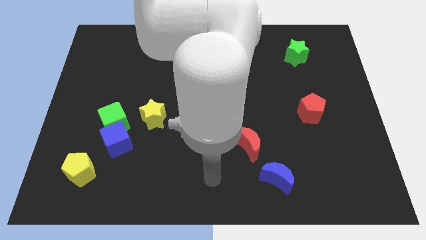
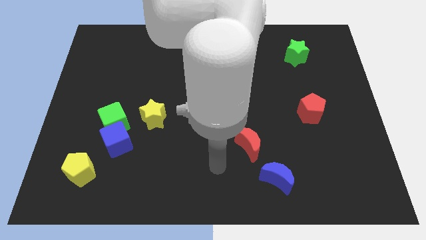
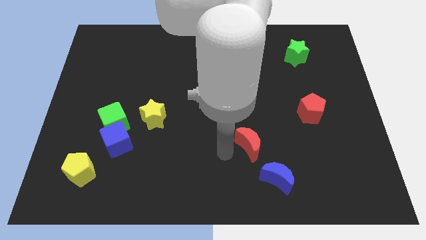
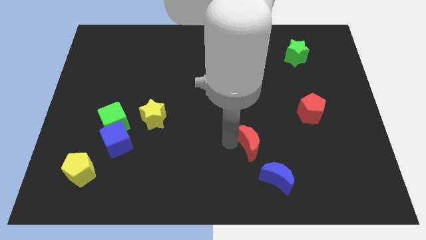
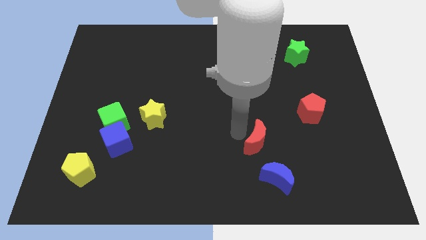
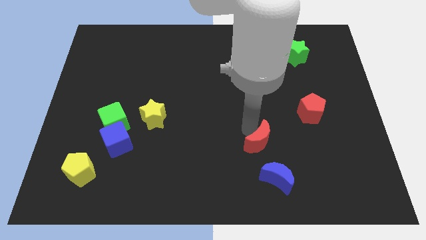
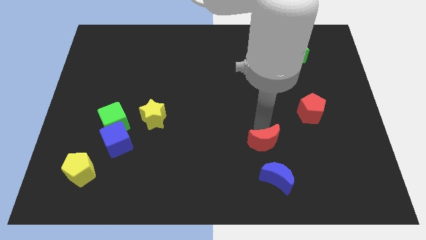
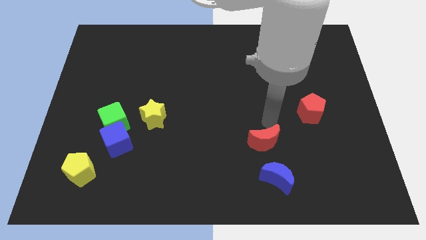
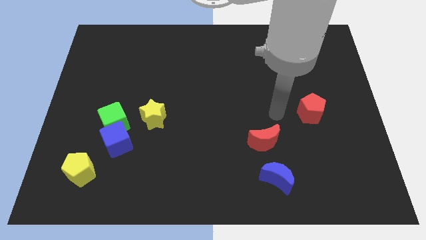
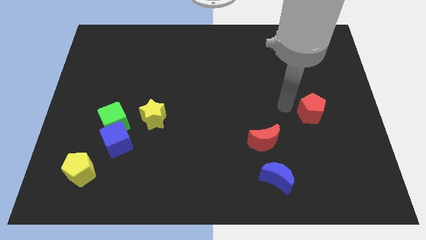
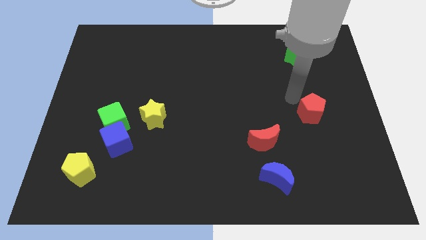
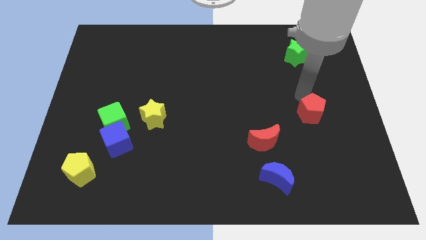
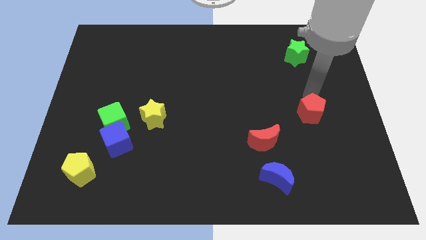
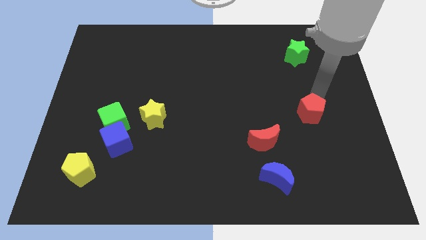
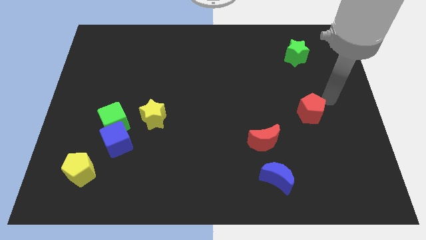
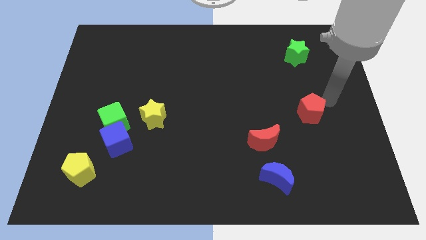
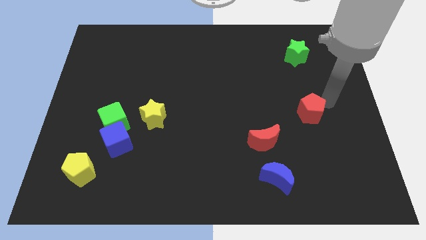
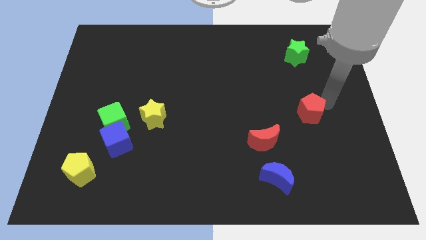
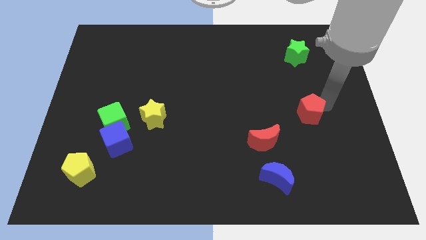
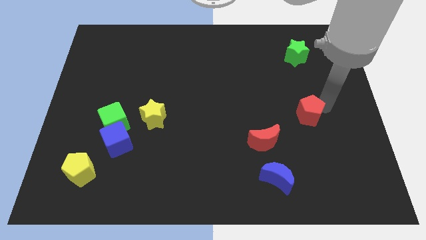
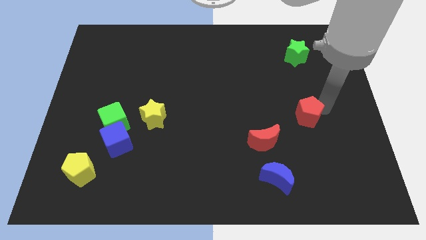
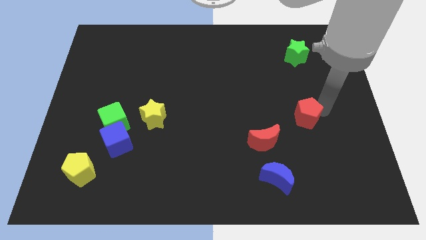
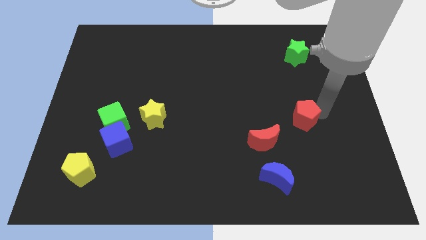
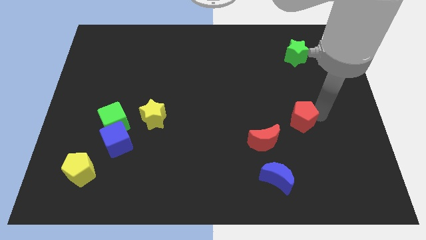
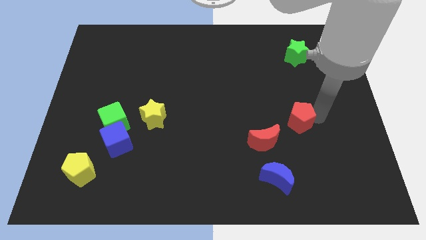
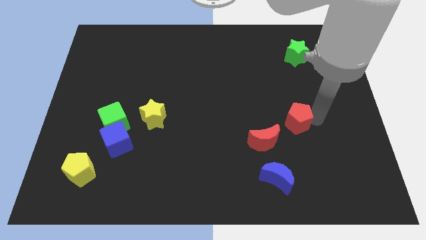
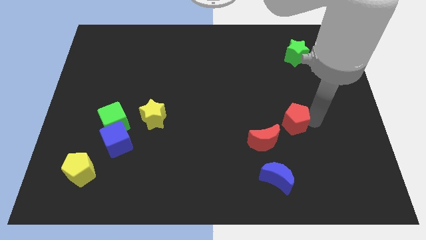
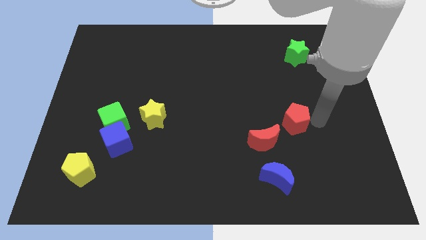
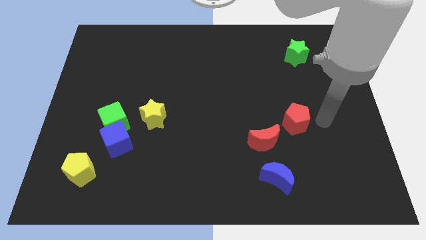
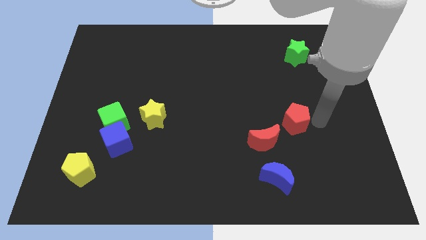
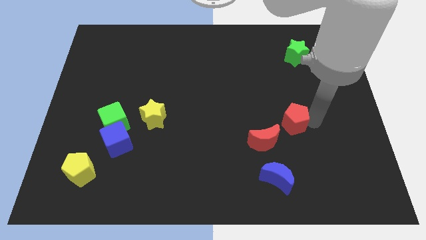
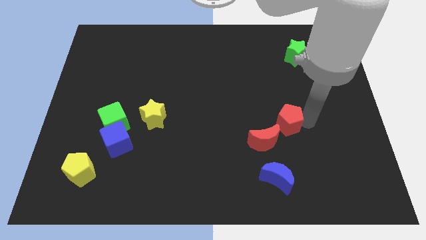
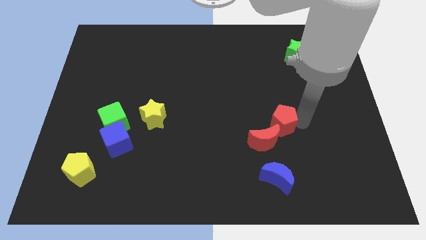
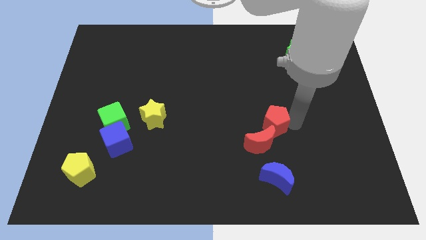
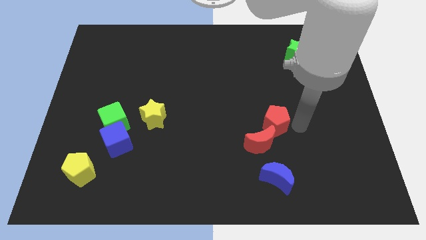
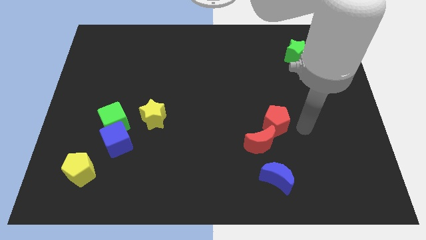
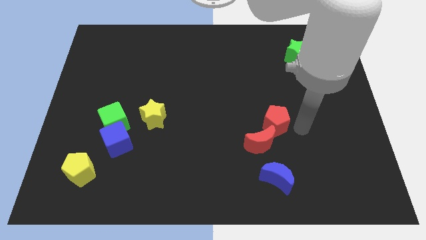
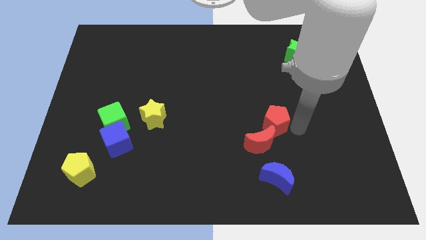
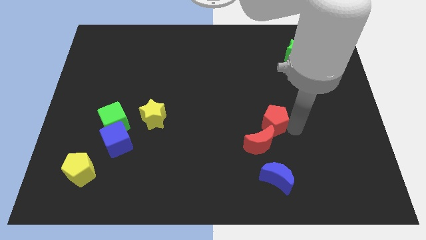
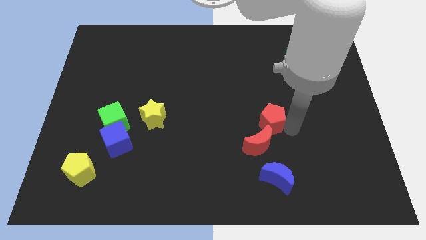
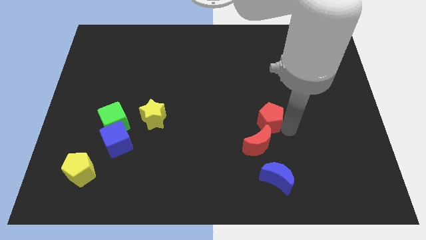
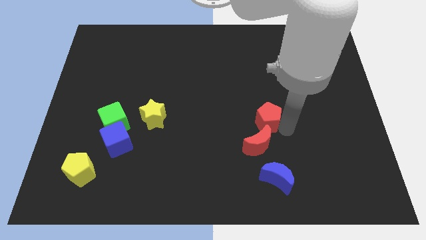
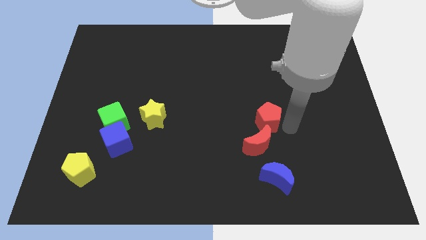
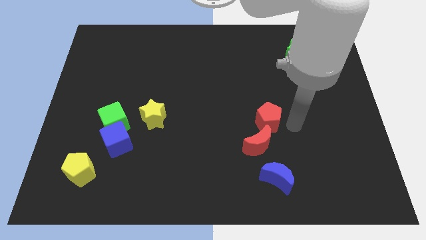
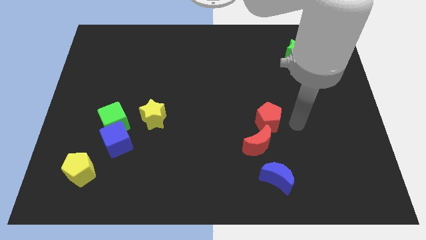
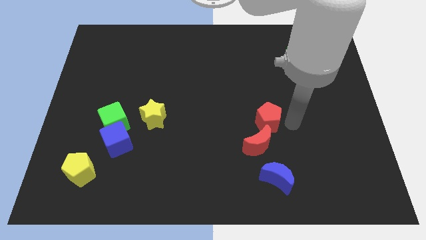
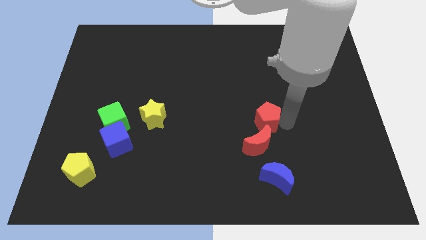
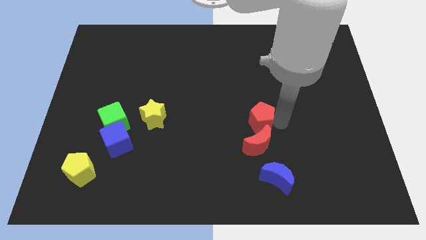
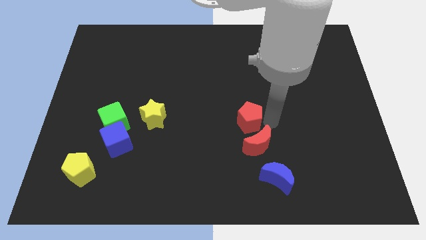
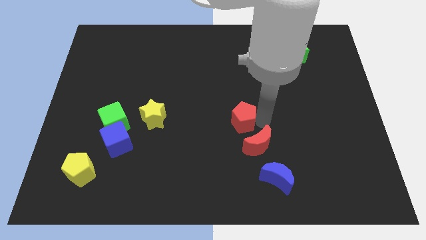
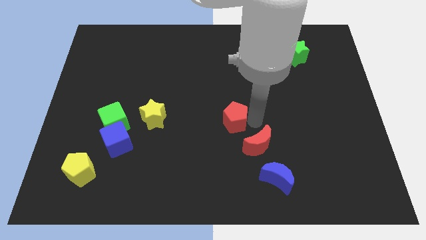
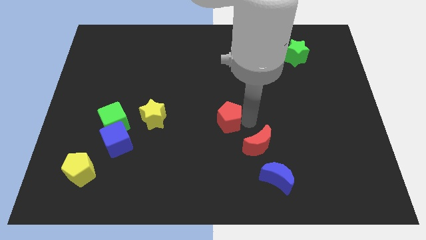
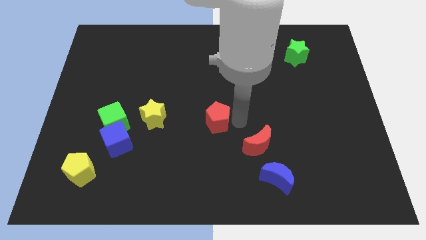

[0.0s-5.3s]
push the red pentagon to the left

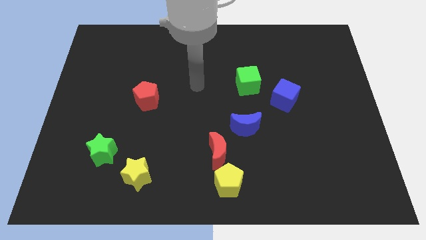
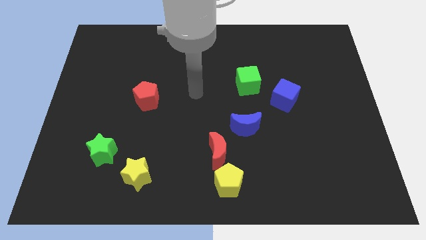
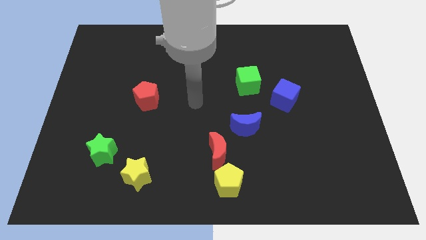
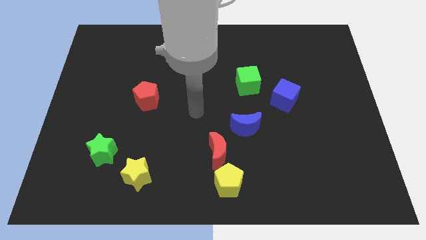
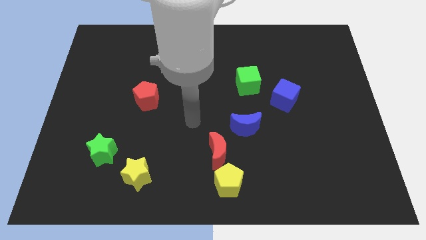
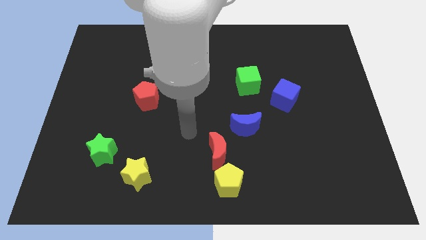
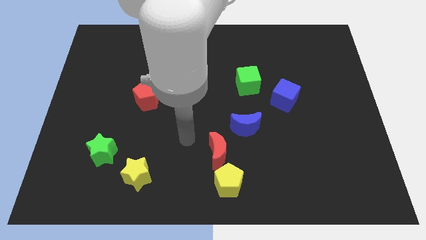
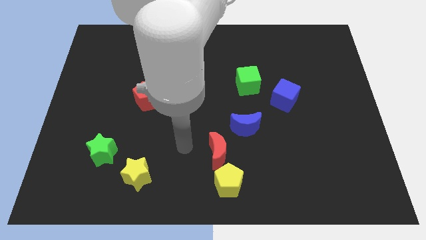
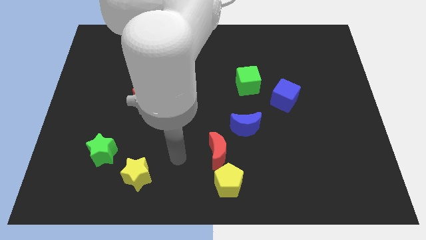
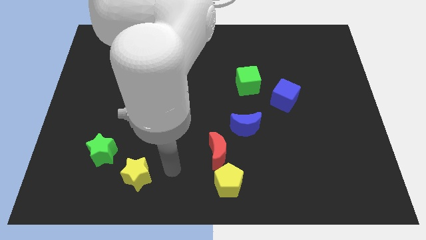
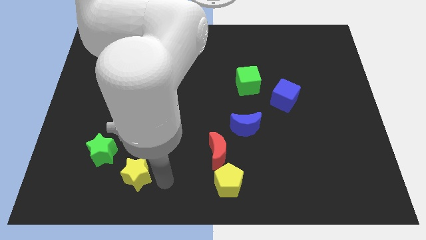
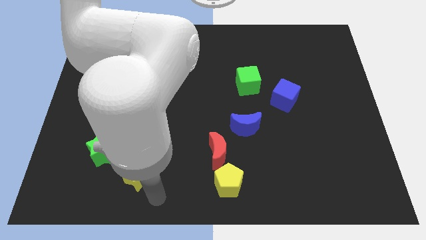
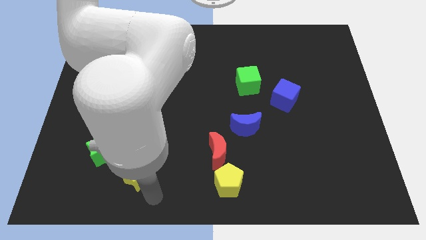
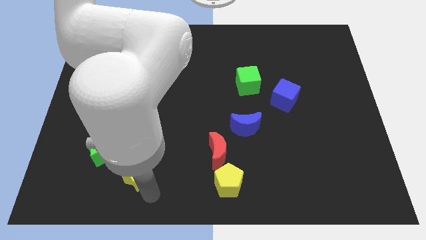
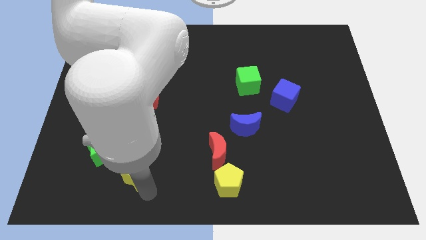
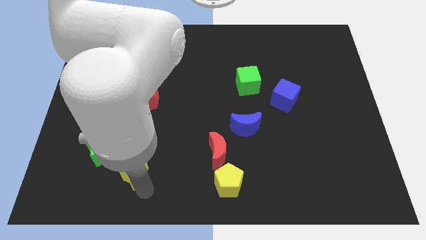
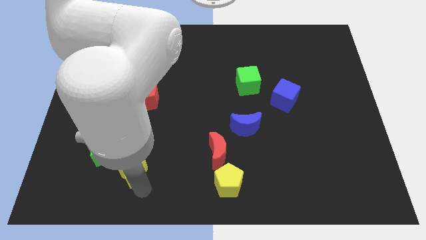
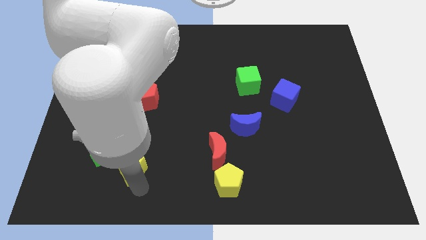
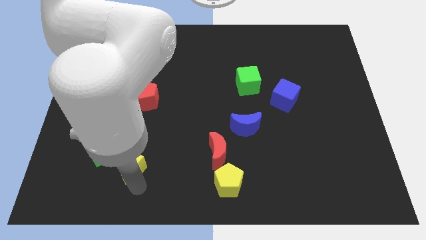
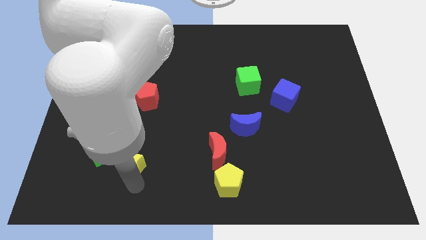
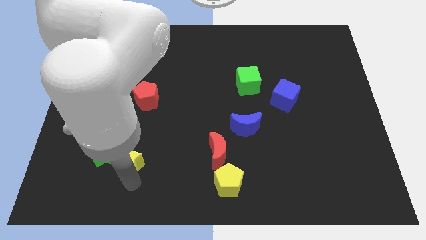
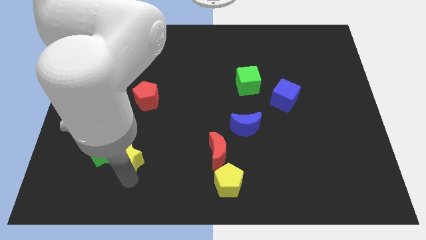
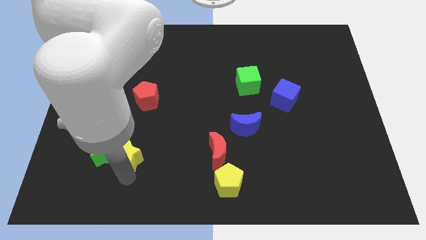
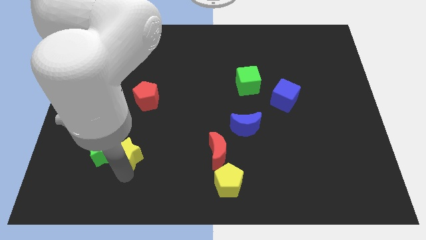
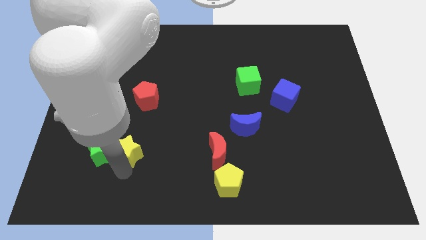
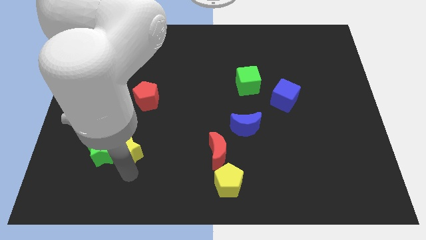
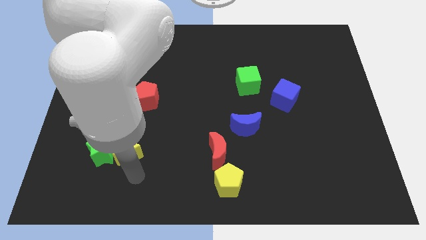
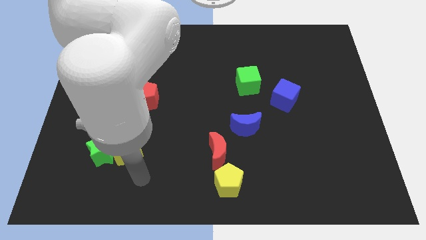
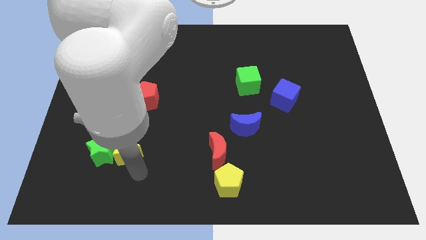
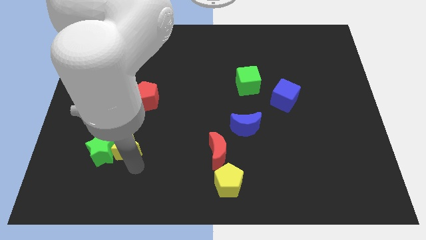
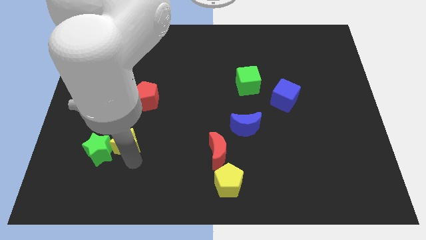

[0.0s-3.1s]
move the yellow star somewhat diagonally upwards and to the left

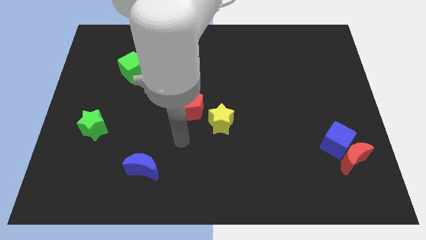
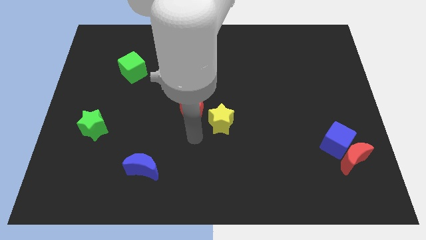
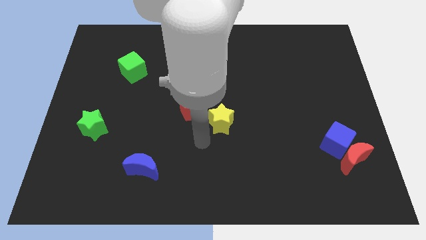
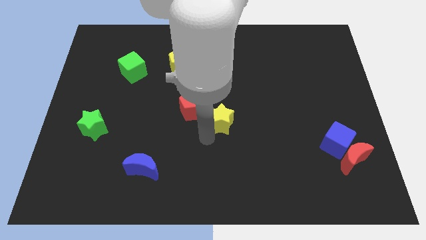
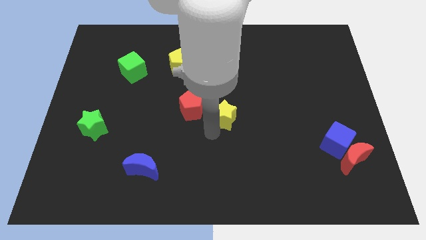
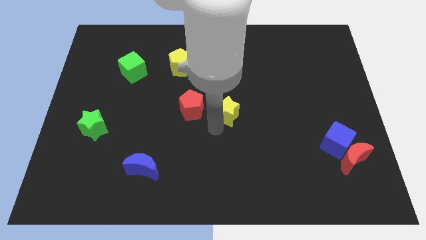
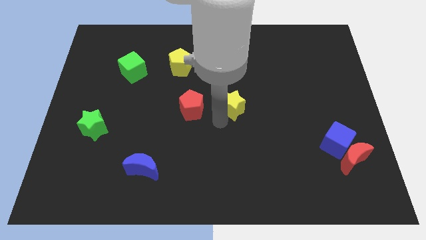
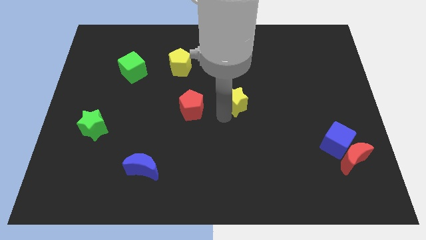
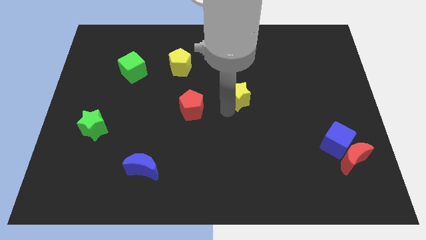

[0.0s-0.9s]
slightly push the yellow star up and then right
